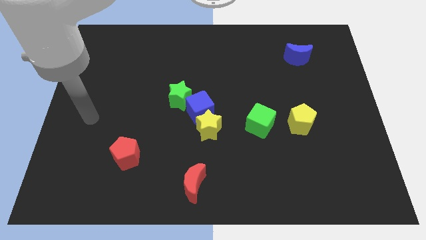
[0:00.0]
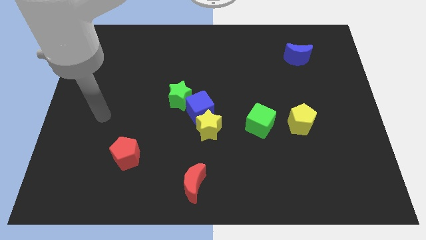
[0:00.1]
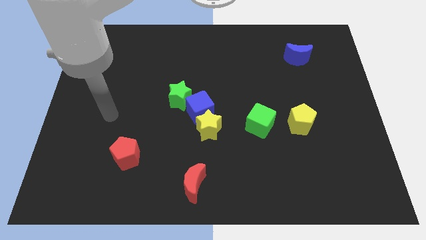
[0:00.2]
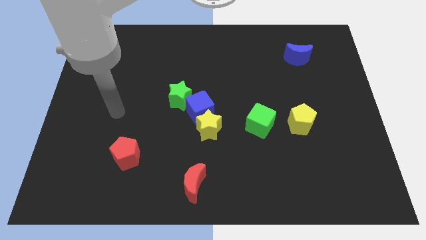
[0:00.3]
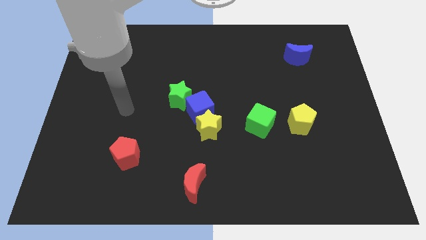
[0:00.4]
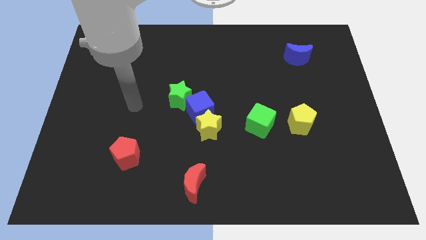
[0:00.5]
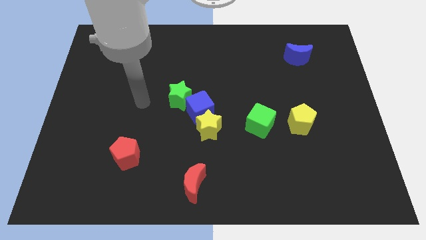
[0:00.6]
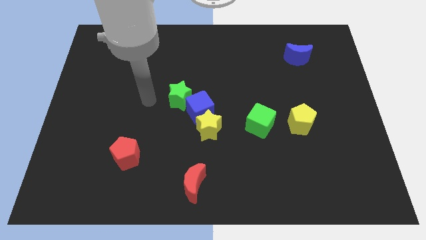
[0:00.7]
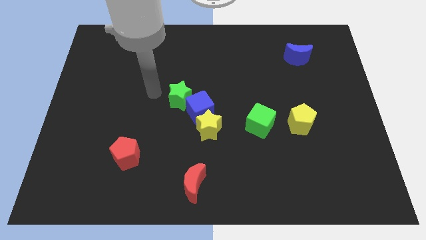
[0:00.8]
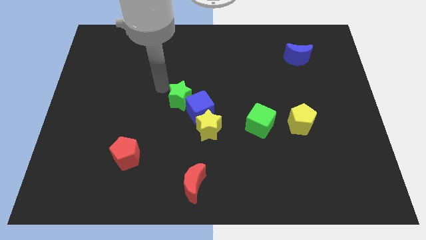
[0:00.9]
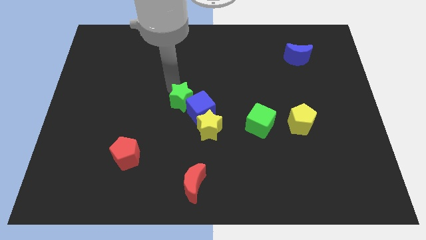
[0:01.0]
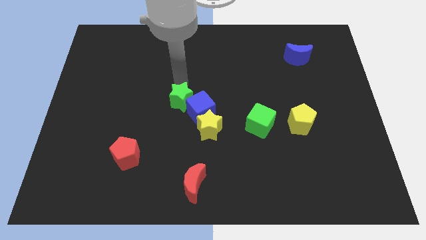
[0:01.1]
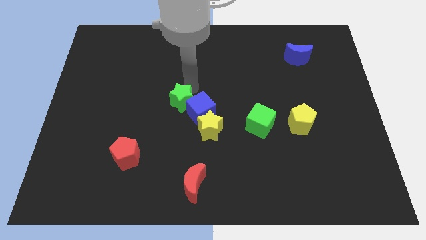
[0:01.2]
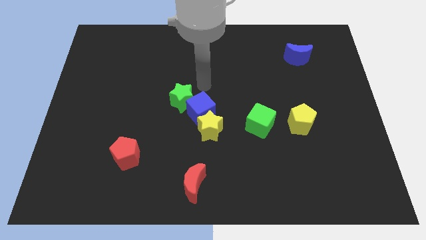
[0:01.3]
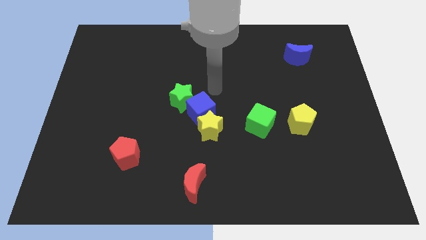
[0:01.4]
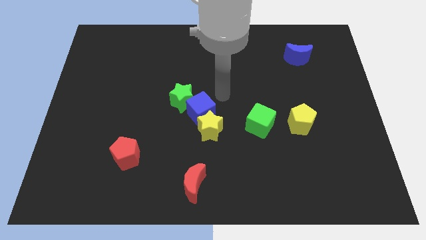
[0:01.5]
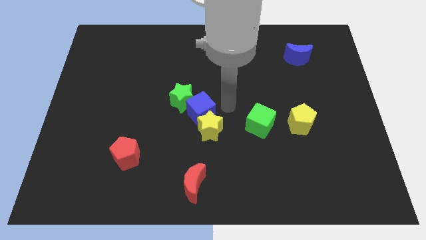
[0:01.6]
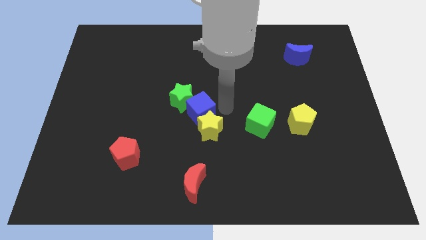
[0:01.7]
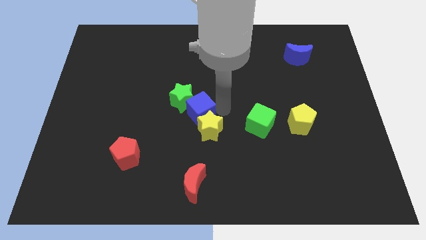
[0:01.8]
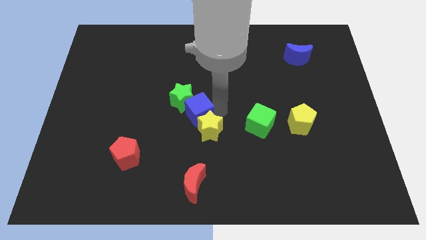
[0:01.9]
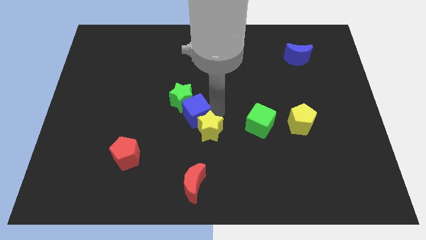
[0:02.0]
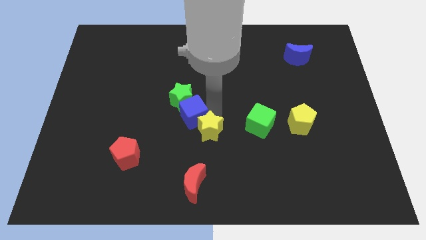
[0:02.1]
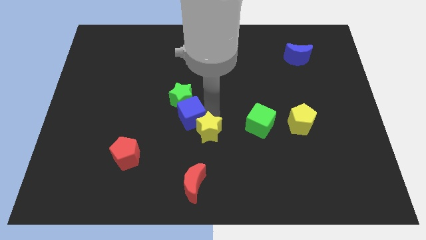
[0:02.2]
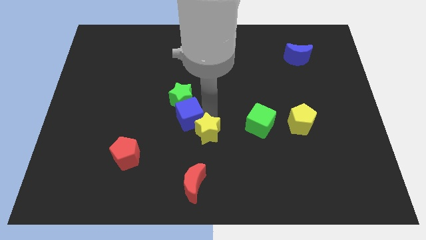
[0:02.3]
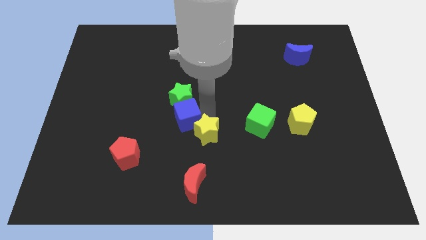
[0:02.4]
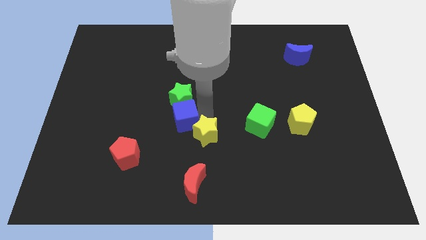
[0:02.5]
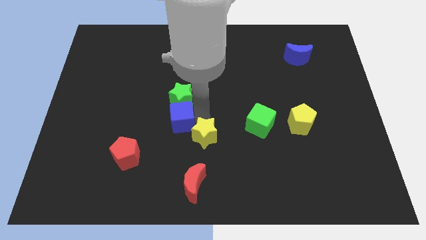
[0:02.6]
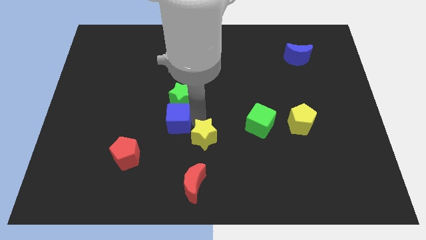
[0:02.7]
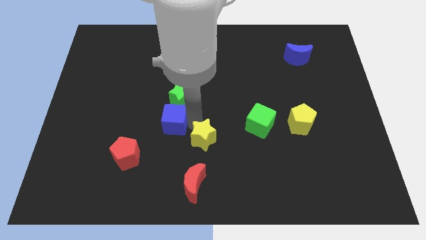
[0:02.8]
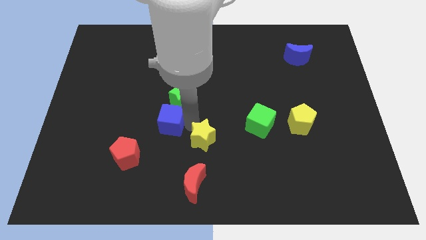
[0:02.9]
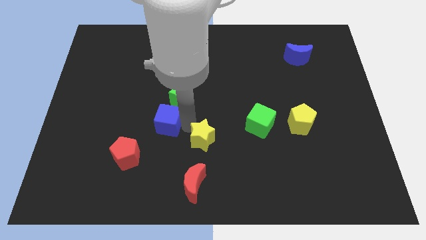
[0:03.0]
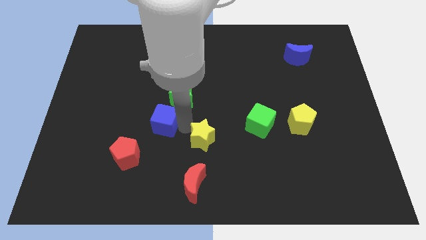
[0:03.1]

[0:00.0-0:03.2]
slide the blue cube left a little

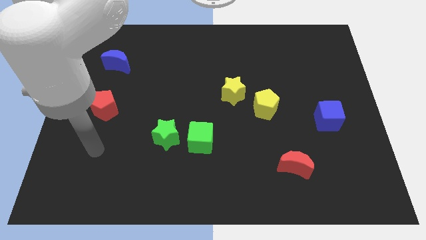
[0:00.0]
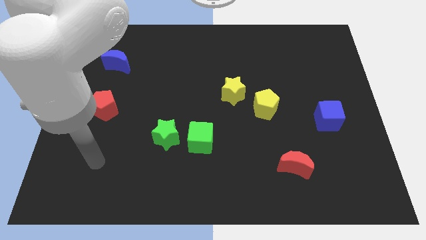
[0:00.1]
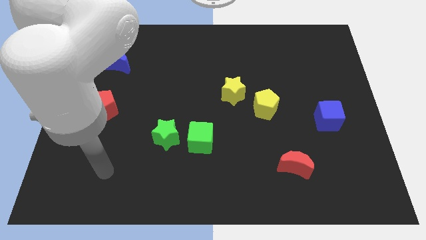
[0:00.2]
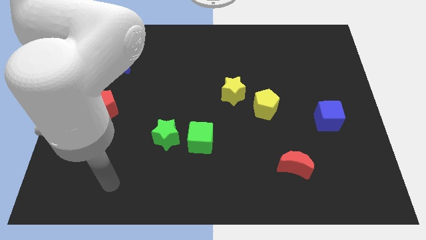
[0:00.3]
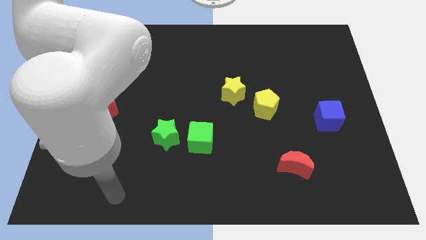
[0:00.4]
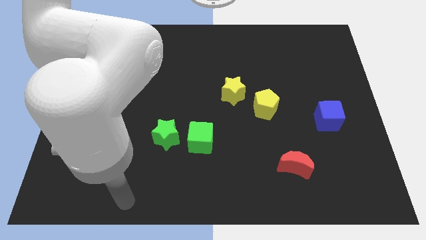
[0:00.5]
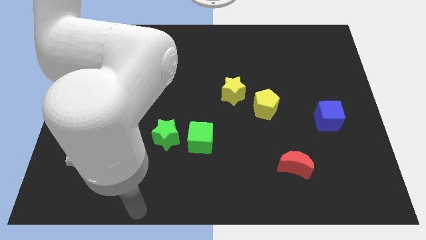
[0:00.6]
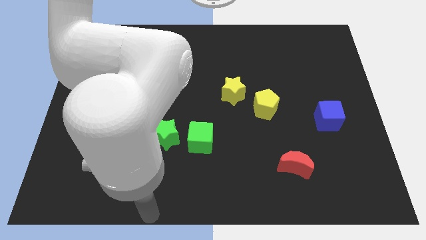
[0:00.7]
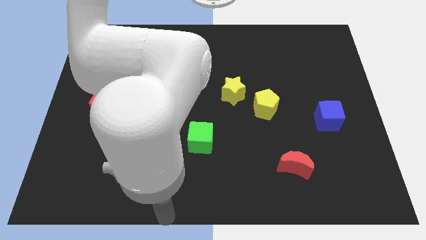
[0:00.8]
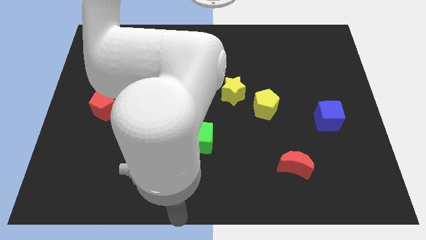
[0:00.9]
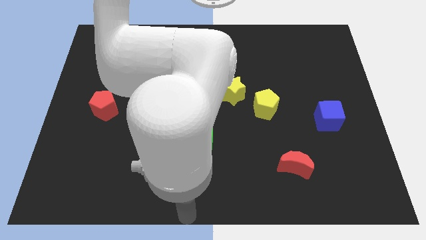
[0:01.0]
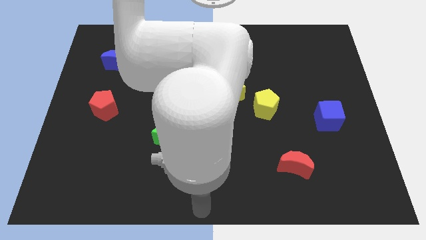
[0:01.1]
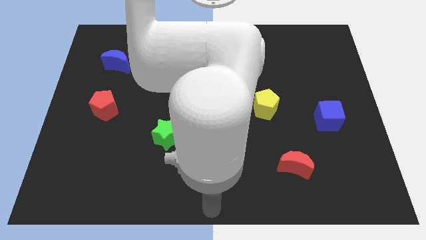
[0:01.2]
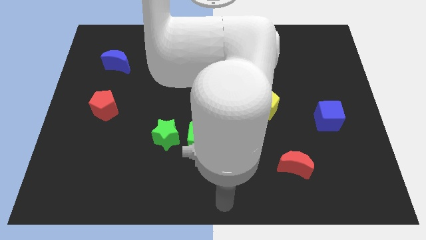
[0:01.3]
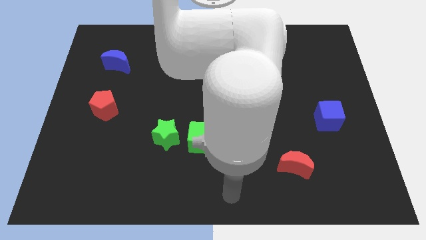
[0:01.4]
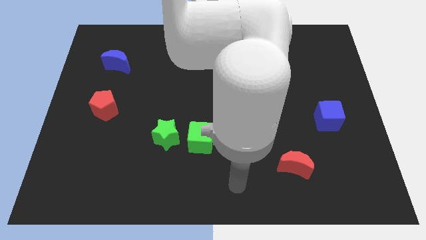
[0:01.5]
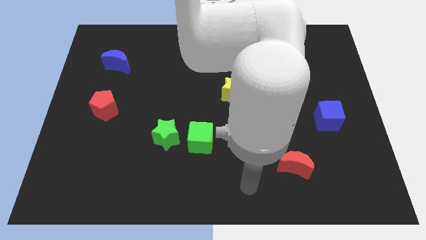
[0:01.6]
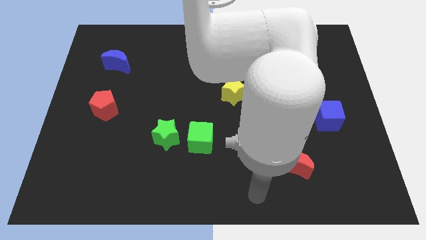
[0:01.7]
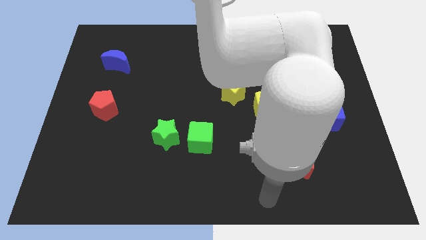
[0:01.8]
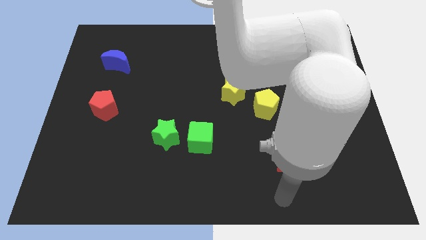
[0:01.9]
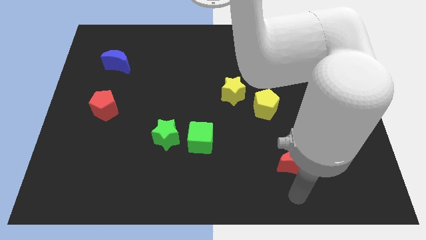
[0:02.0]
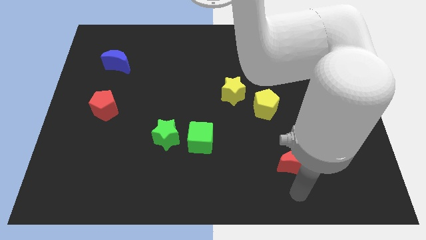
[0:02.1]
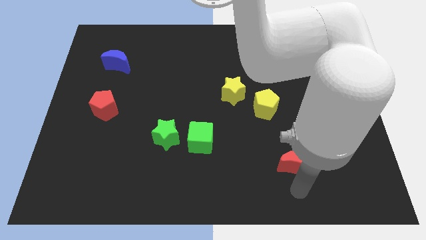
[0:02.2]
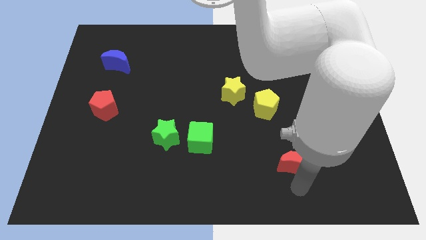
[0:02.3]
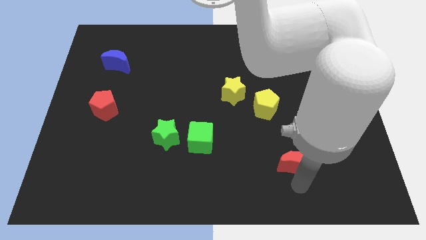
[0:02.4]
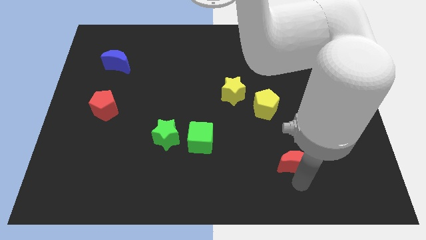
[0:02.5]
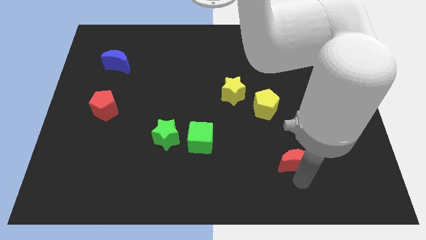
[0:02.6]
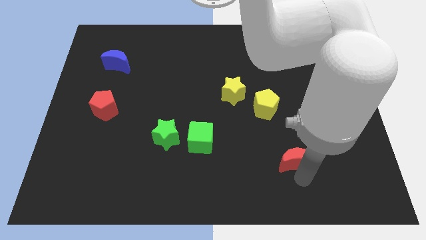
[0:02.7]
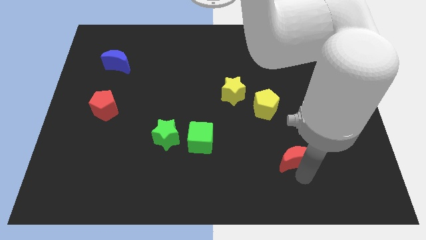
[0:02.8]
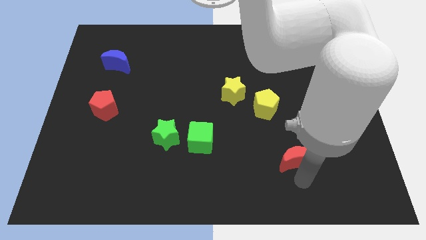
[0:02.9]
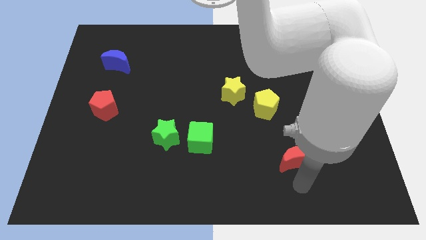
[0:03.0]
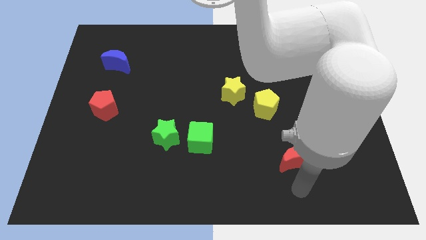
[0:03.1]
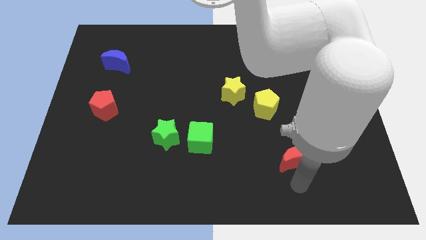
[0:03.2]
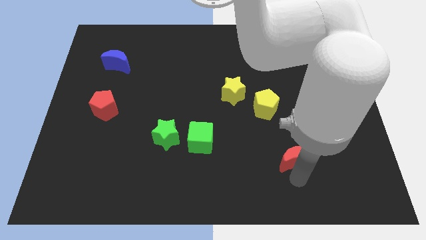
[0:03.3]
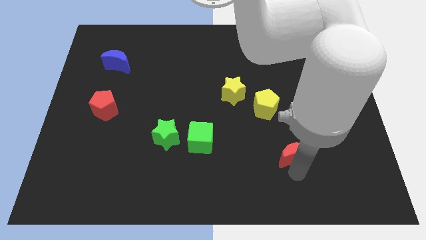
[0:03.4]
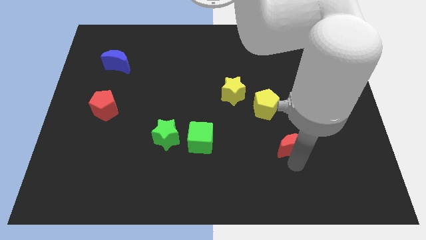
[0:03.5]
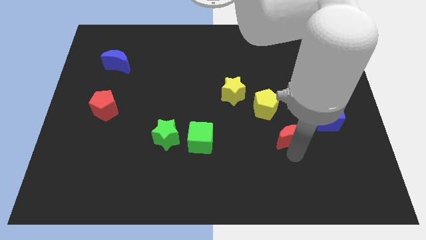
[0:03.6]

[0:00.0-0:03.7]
slide the red moon slightly up

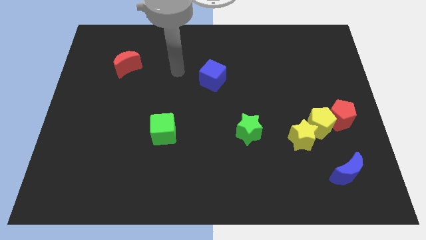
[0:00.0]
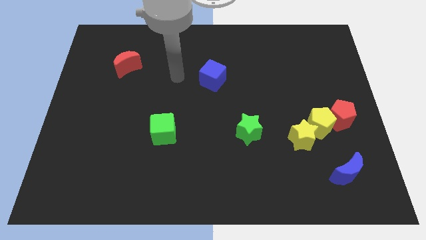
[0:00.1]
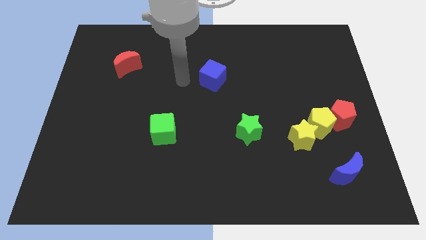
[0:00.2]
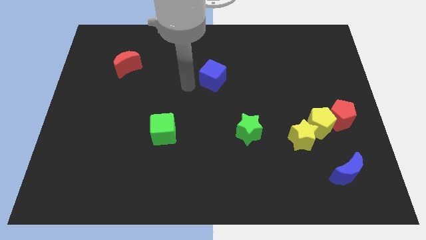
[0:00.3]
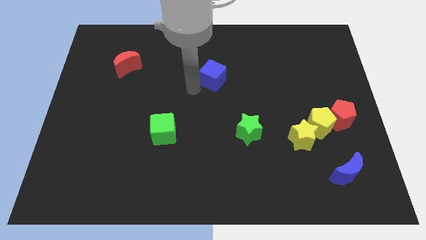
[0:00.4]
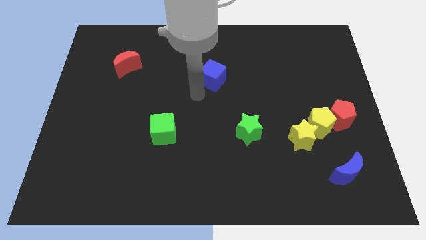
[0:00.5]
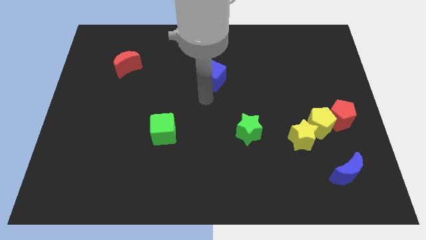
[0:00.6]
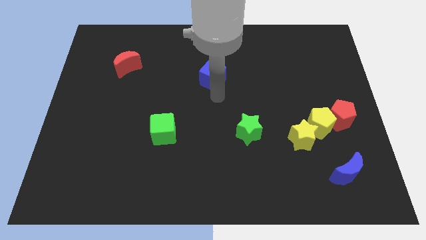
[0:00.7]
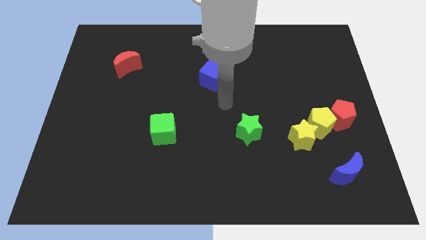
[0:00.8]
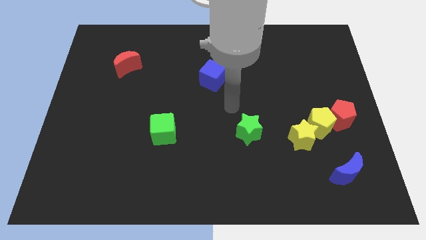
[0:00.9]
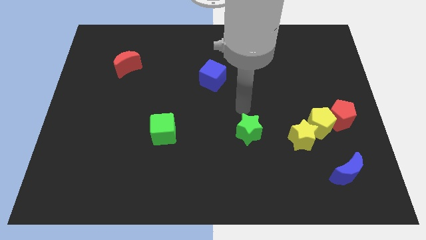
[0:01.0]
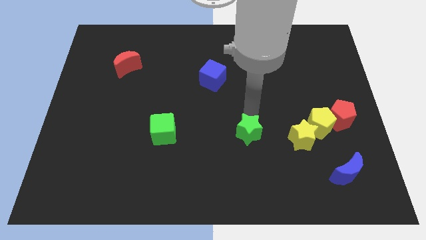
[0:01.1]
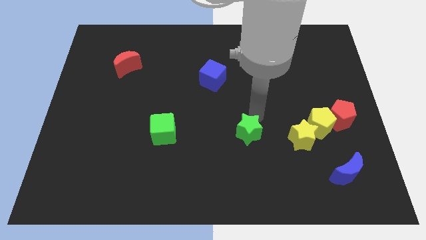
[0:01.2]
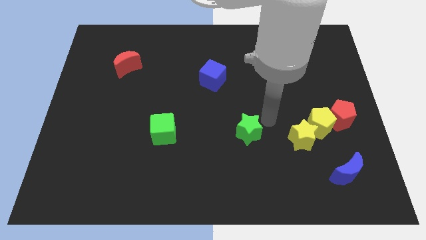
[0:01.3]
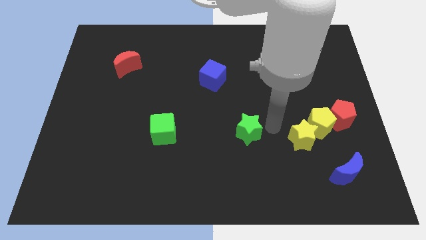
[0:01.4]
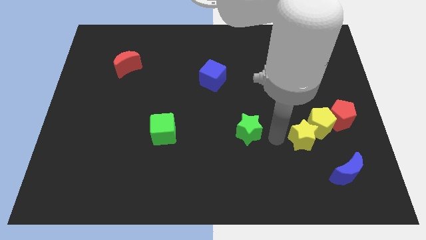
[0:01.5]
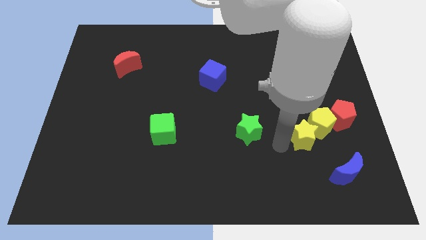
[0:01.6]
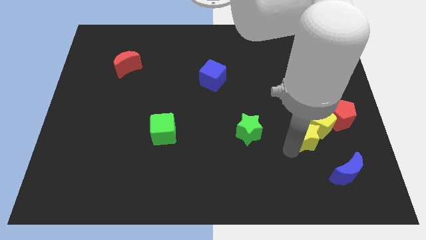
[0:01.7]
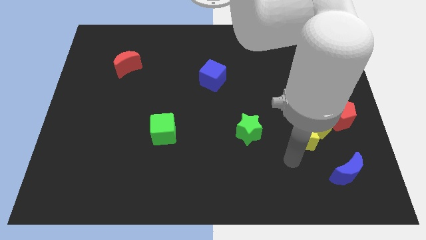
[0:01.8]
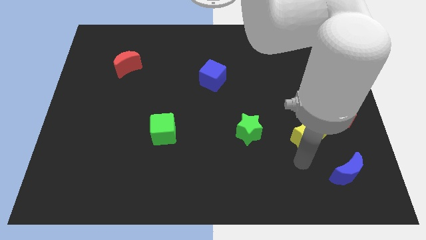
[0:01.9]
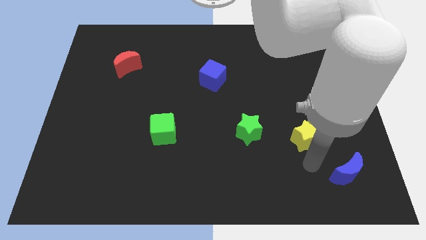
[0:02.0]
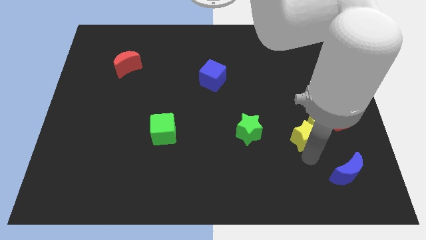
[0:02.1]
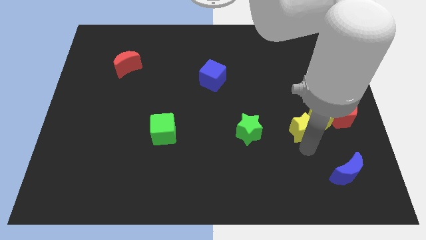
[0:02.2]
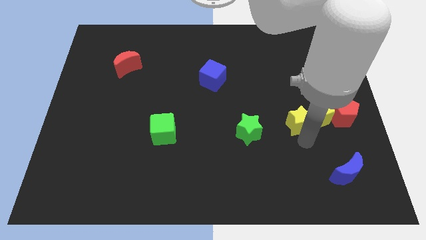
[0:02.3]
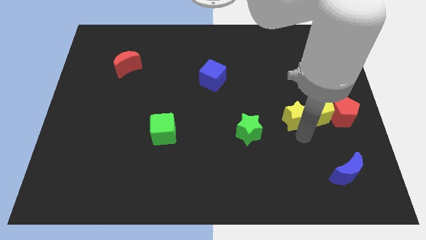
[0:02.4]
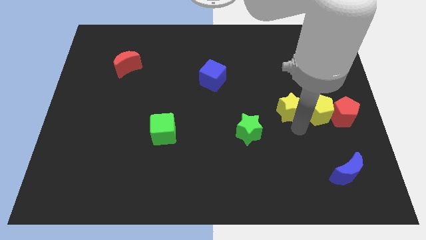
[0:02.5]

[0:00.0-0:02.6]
slide the yellow star up a little bit
